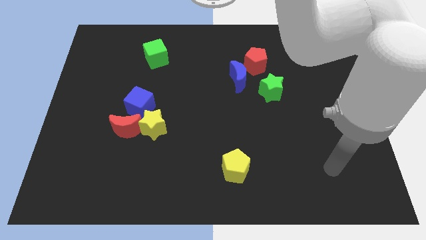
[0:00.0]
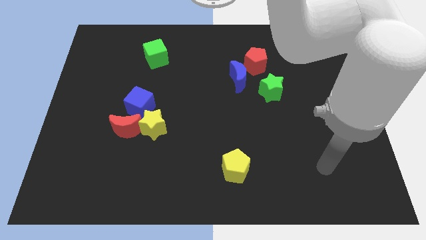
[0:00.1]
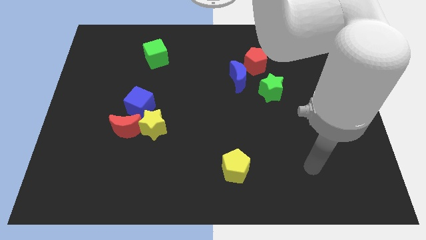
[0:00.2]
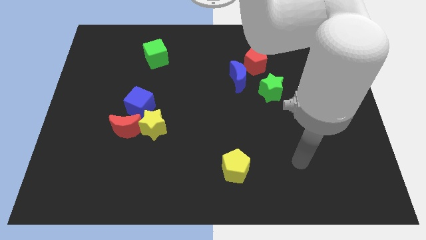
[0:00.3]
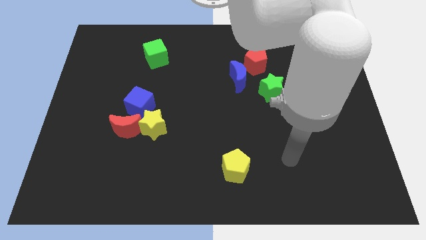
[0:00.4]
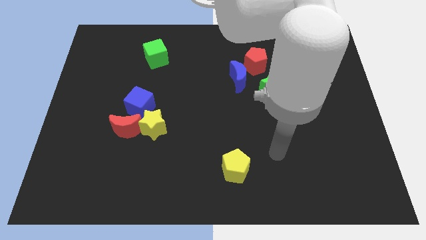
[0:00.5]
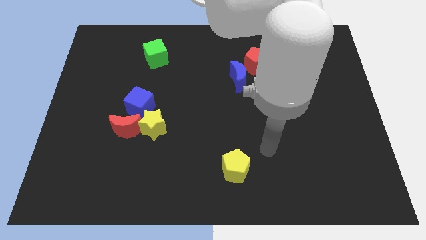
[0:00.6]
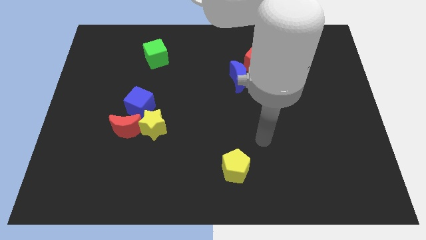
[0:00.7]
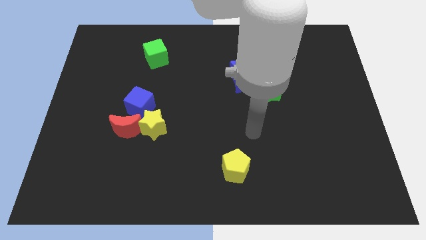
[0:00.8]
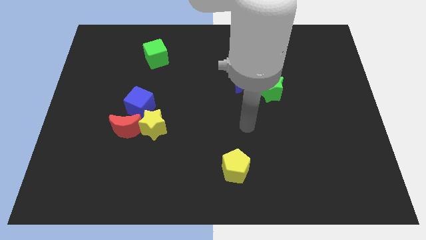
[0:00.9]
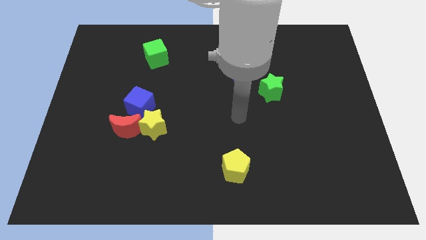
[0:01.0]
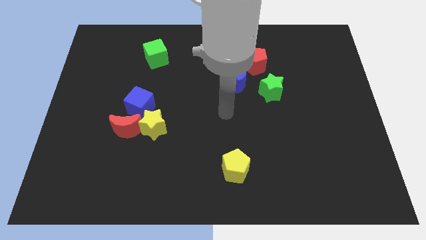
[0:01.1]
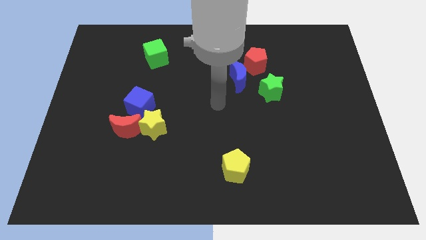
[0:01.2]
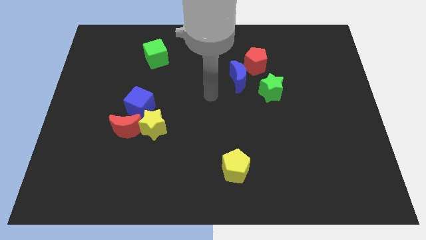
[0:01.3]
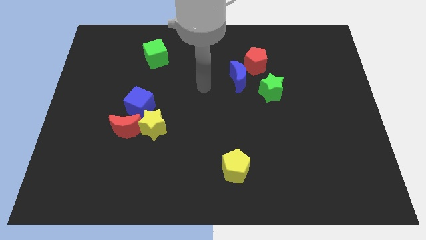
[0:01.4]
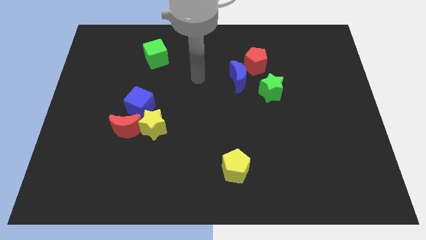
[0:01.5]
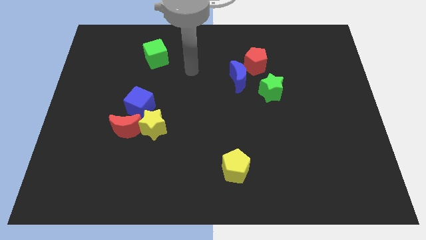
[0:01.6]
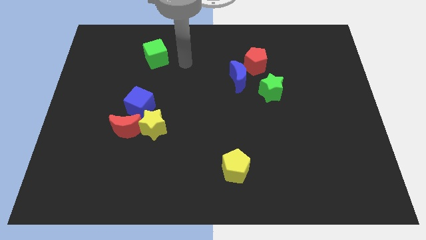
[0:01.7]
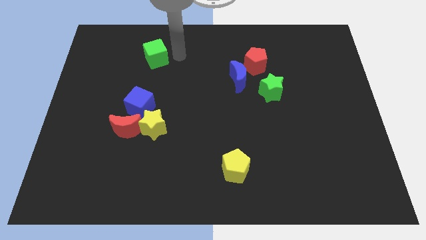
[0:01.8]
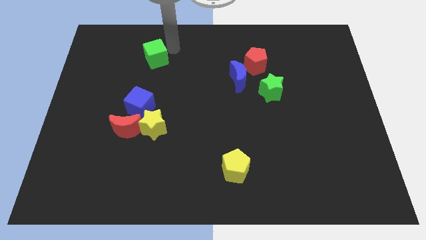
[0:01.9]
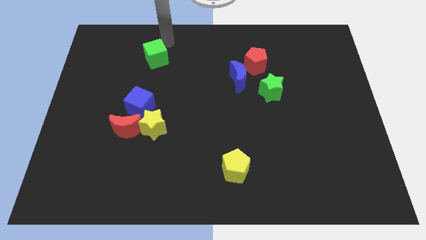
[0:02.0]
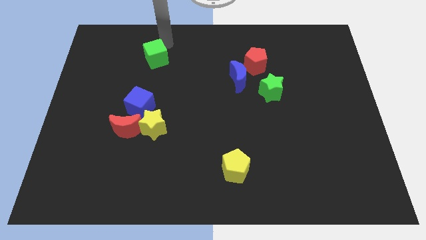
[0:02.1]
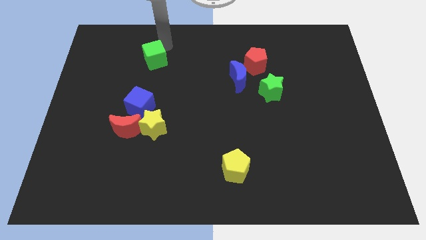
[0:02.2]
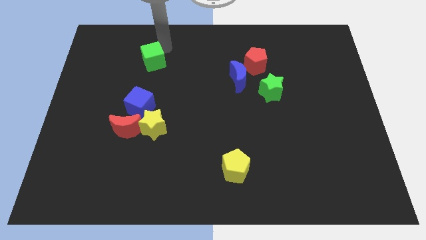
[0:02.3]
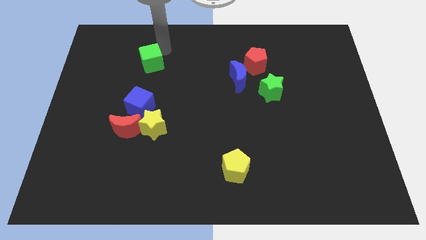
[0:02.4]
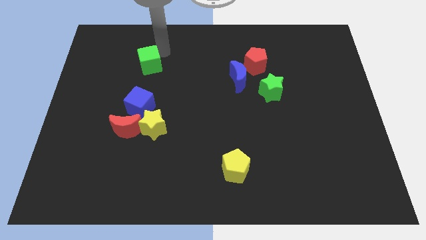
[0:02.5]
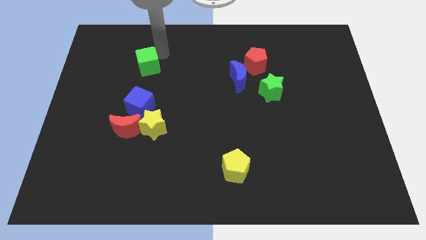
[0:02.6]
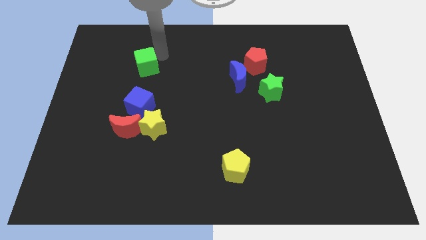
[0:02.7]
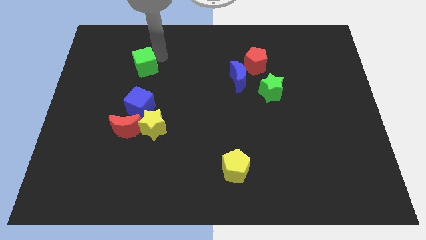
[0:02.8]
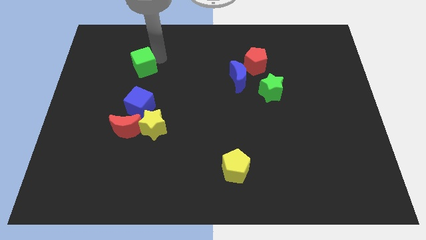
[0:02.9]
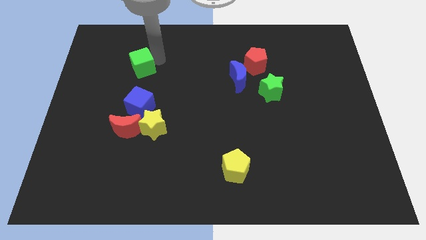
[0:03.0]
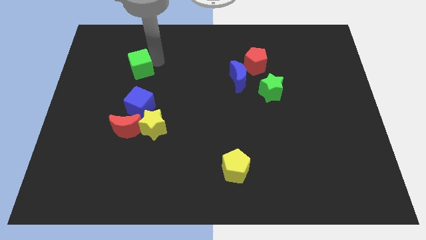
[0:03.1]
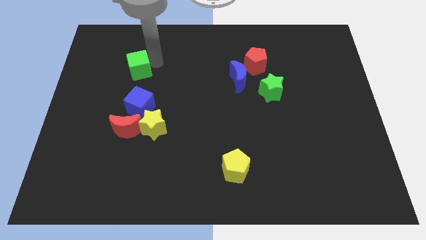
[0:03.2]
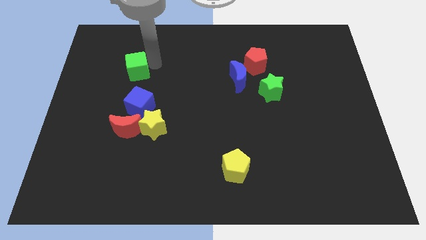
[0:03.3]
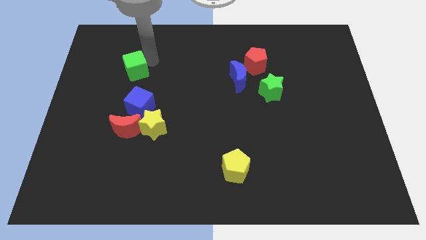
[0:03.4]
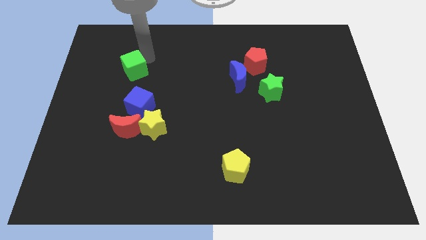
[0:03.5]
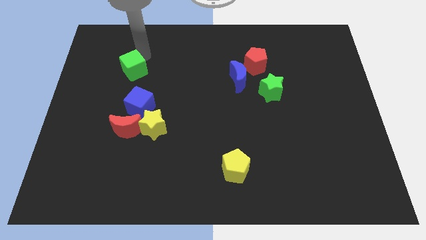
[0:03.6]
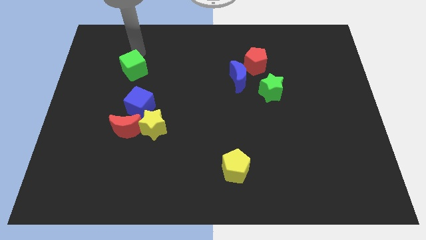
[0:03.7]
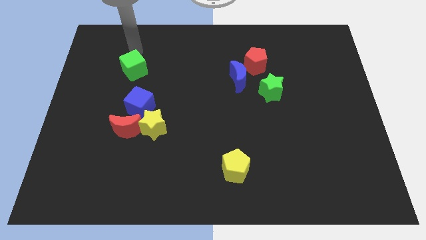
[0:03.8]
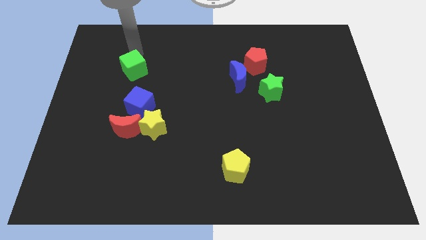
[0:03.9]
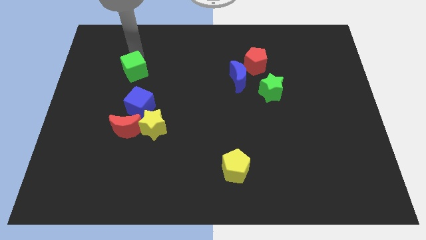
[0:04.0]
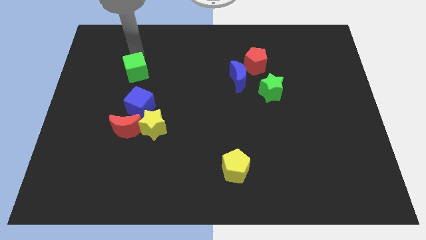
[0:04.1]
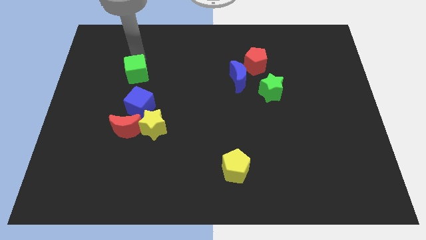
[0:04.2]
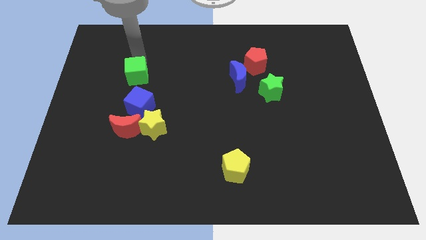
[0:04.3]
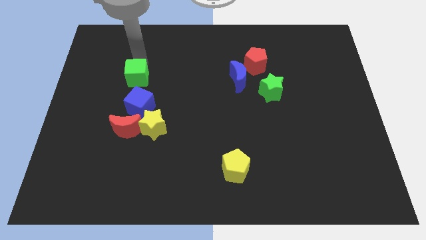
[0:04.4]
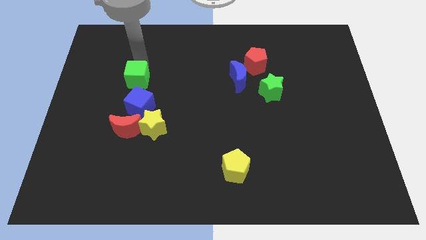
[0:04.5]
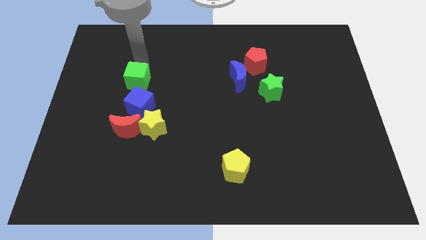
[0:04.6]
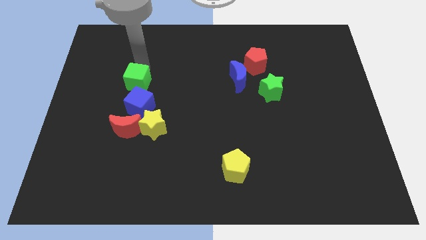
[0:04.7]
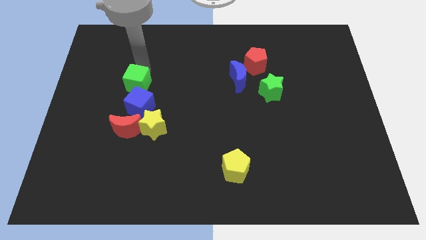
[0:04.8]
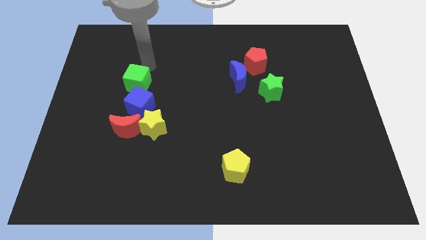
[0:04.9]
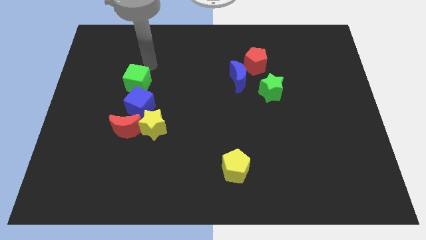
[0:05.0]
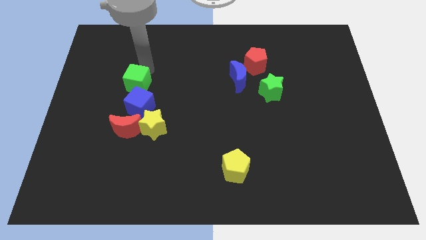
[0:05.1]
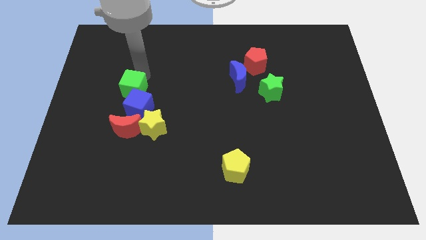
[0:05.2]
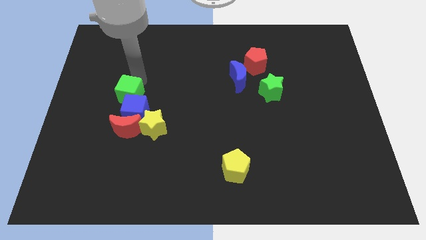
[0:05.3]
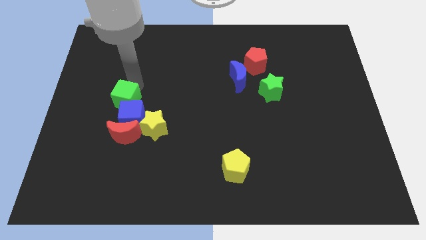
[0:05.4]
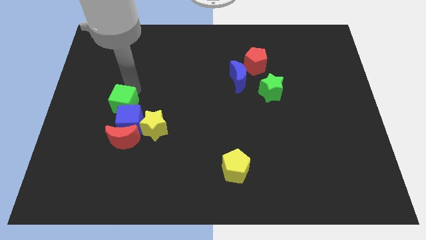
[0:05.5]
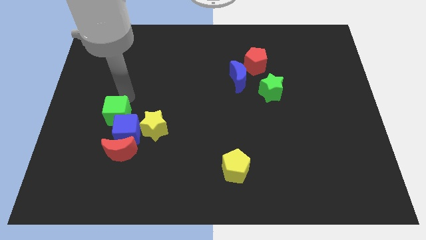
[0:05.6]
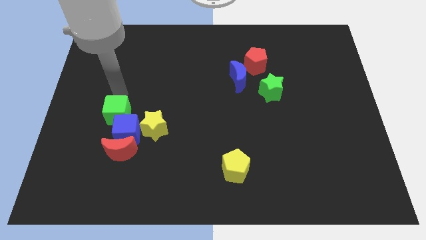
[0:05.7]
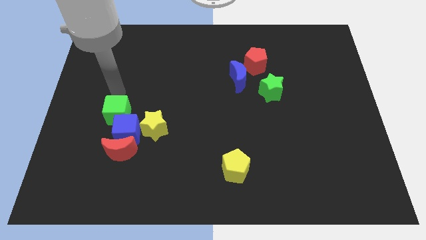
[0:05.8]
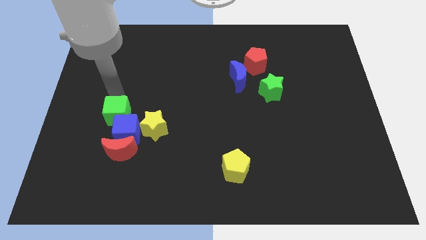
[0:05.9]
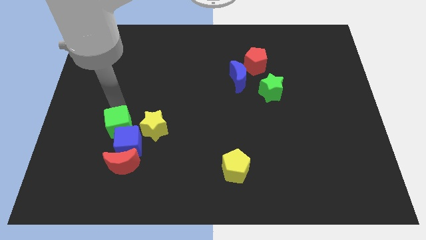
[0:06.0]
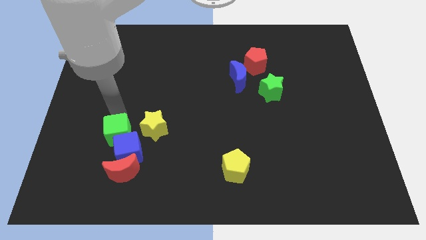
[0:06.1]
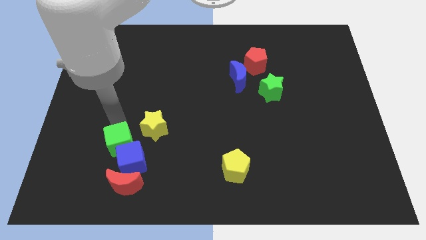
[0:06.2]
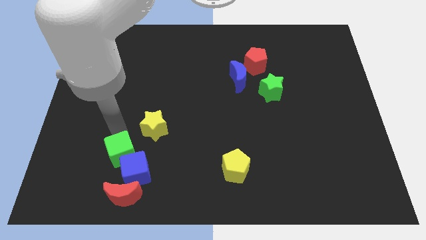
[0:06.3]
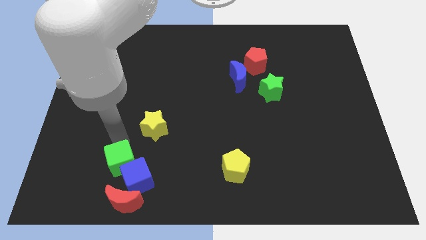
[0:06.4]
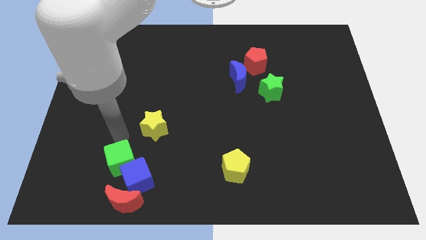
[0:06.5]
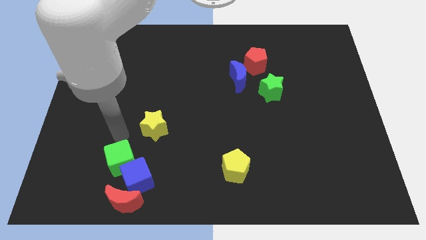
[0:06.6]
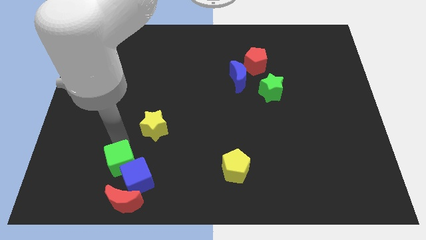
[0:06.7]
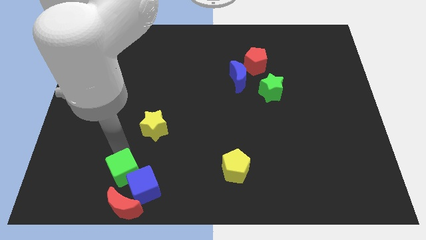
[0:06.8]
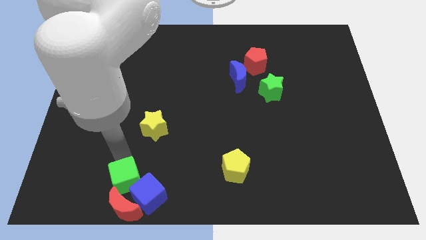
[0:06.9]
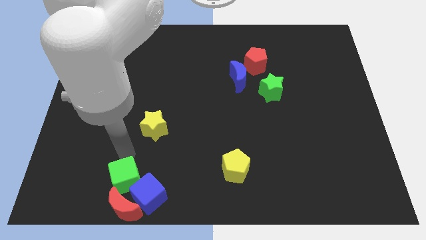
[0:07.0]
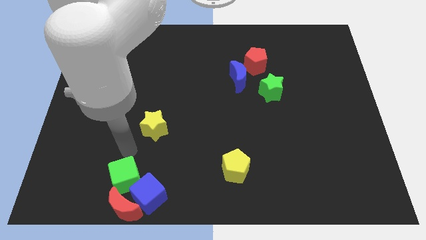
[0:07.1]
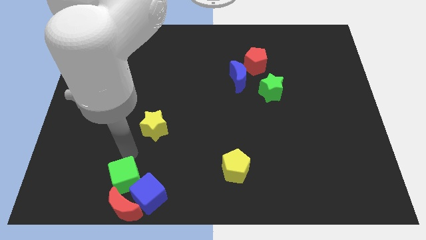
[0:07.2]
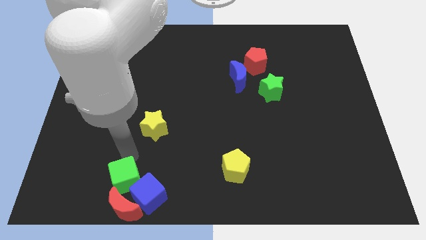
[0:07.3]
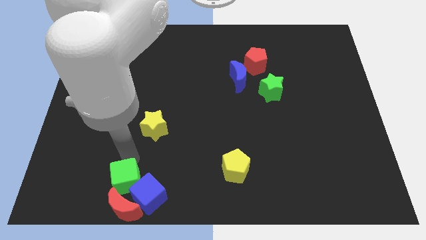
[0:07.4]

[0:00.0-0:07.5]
move the green cube to the red moon
